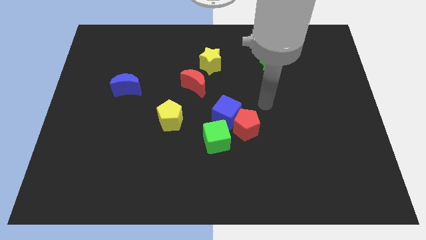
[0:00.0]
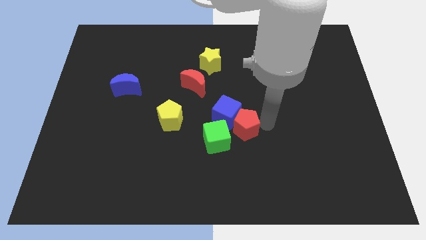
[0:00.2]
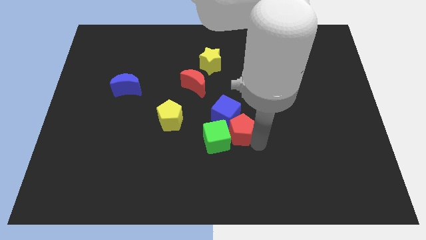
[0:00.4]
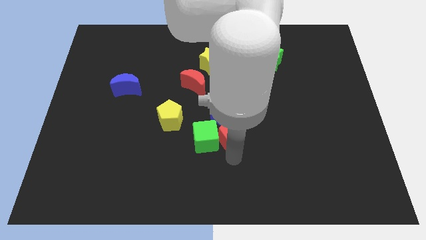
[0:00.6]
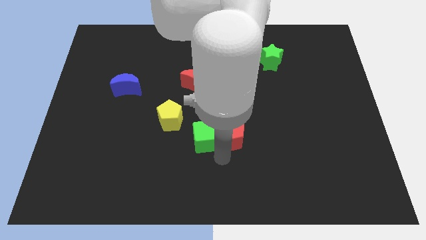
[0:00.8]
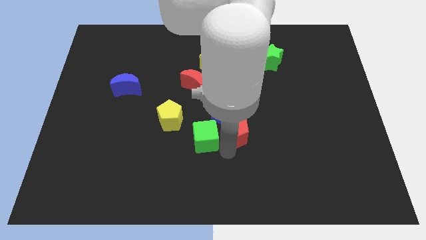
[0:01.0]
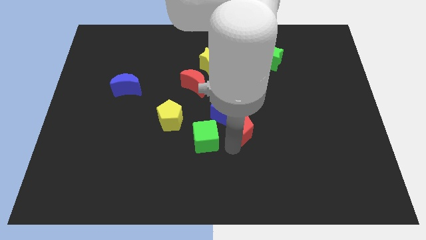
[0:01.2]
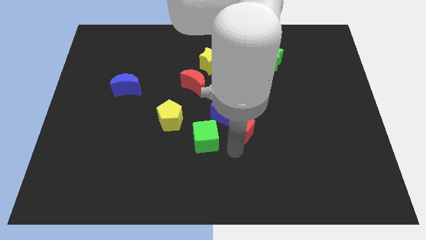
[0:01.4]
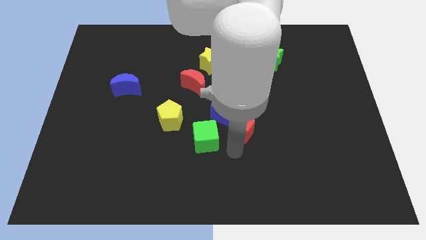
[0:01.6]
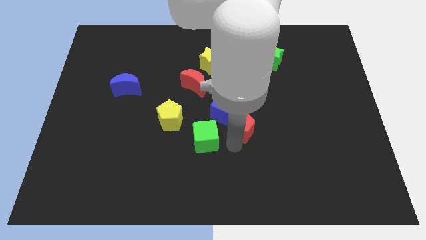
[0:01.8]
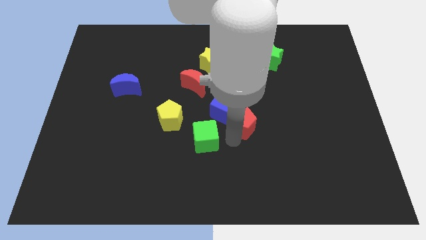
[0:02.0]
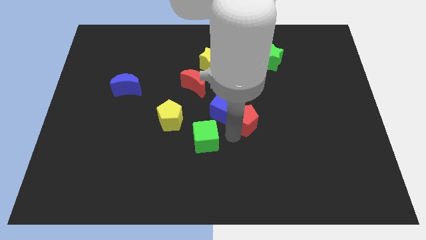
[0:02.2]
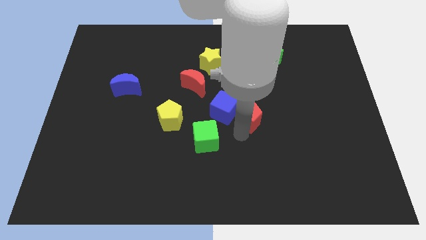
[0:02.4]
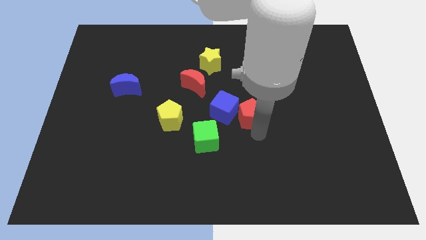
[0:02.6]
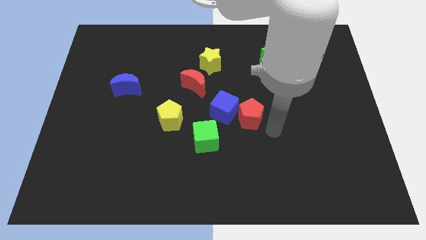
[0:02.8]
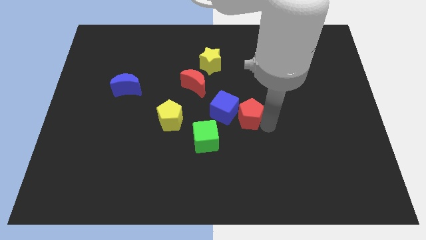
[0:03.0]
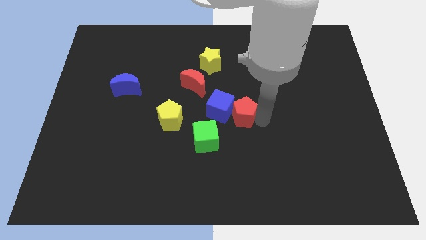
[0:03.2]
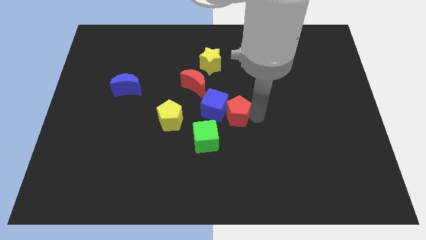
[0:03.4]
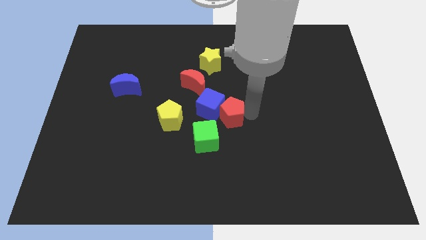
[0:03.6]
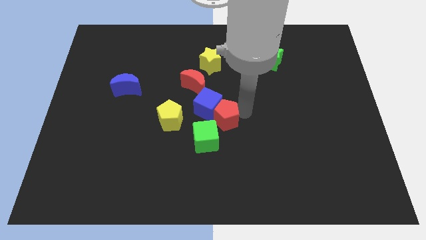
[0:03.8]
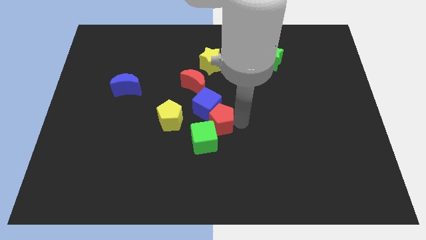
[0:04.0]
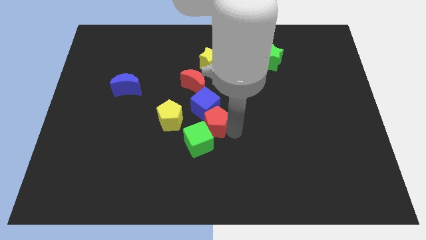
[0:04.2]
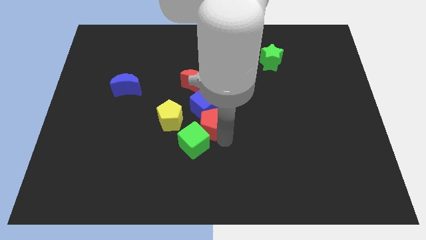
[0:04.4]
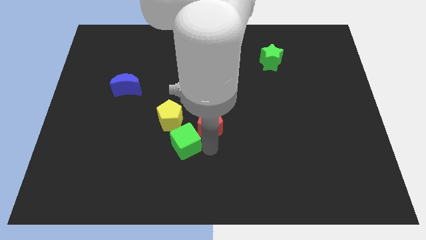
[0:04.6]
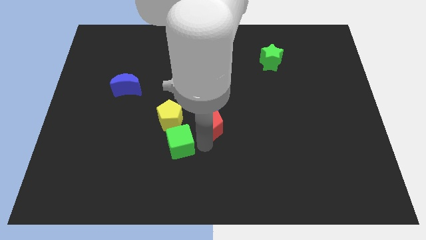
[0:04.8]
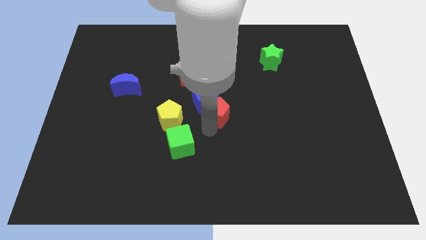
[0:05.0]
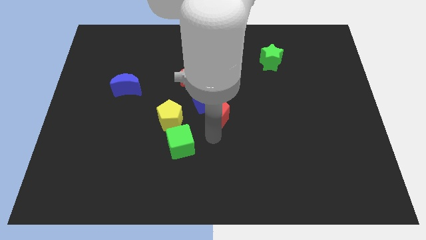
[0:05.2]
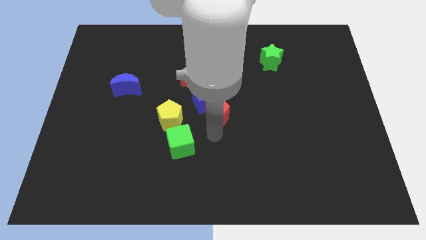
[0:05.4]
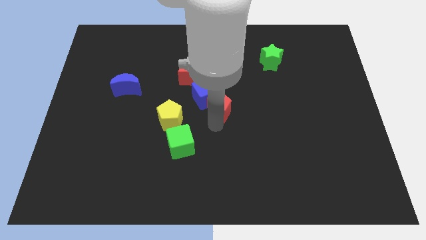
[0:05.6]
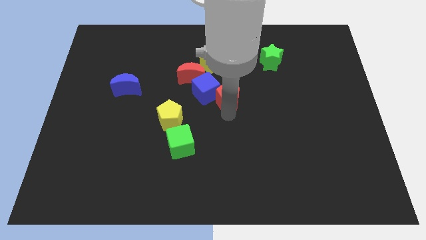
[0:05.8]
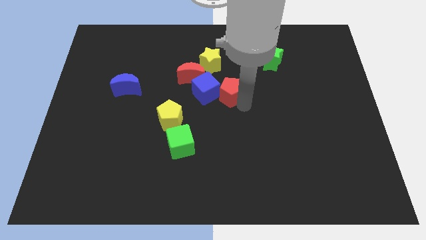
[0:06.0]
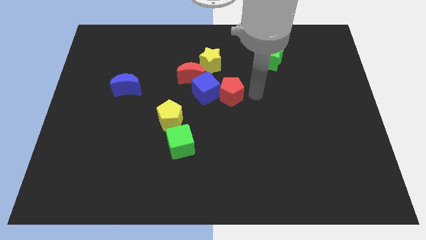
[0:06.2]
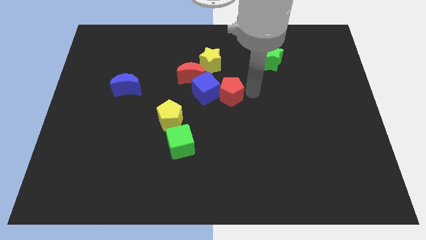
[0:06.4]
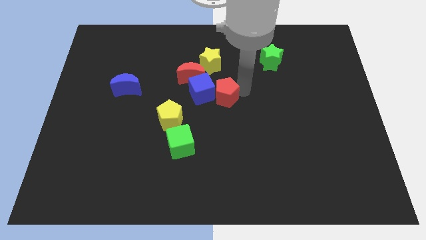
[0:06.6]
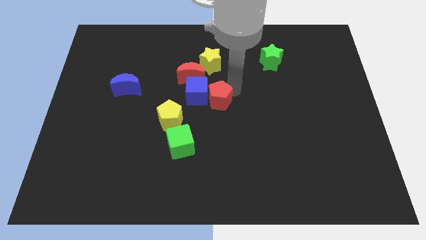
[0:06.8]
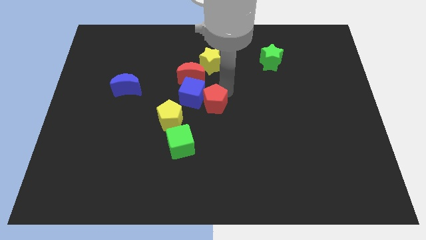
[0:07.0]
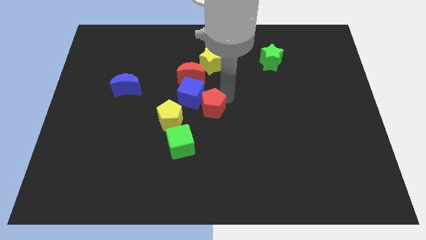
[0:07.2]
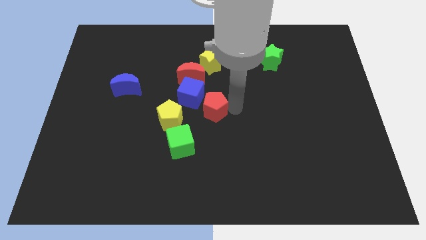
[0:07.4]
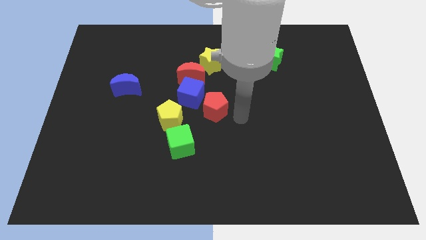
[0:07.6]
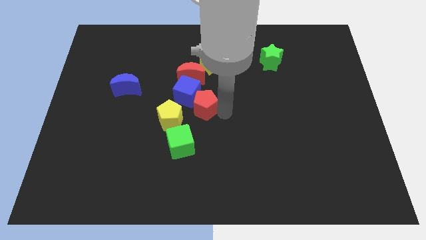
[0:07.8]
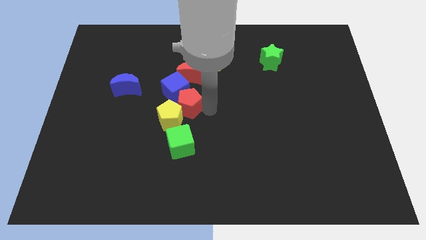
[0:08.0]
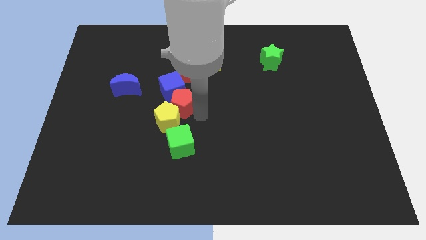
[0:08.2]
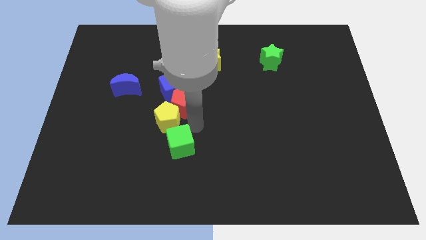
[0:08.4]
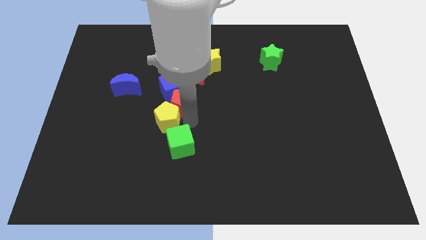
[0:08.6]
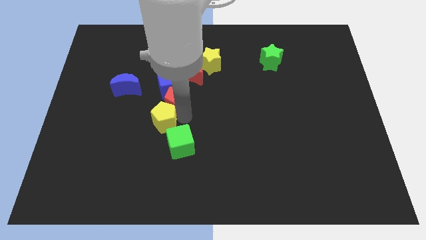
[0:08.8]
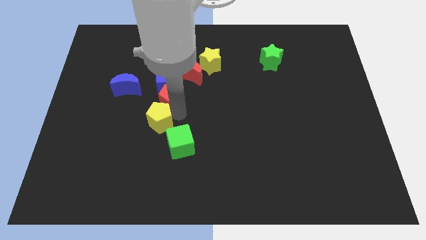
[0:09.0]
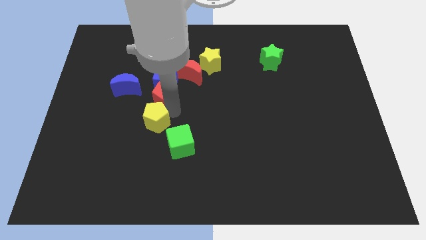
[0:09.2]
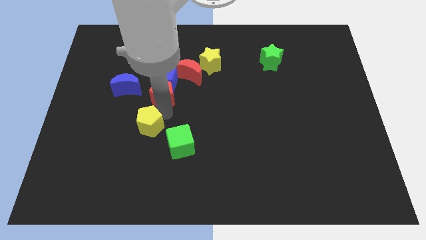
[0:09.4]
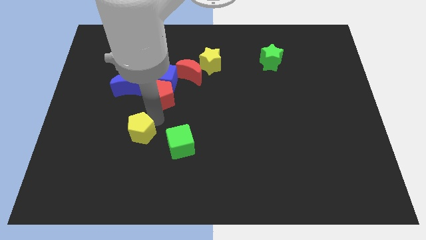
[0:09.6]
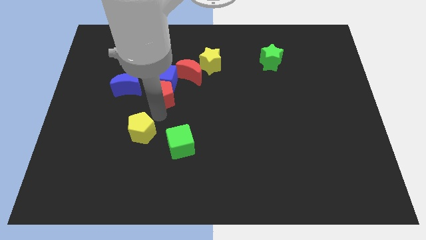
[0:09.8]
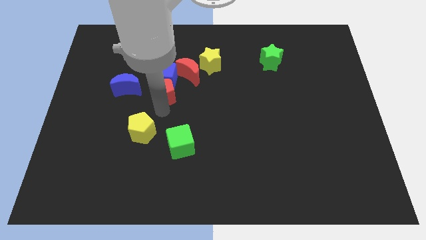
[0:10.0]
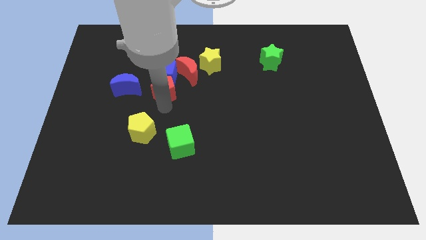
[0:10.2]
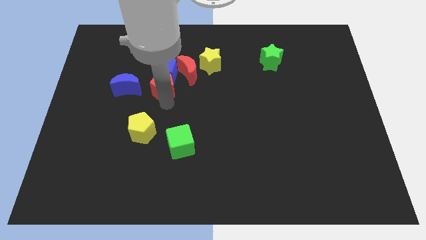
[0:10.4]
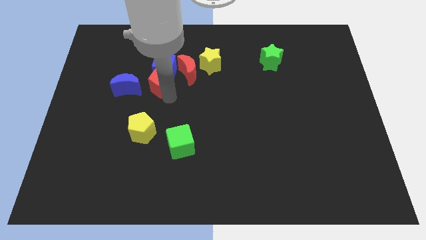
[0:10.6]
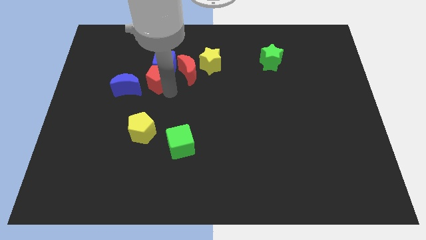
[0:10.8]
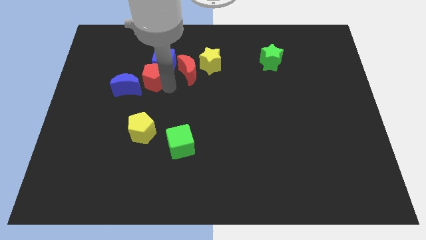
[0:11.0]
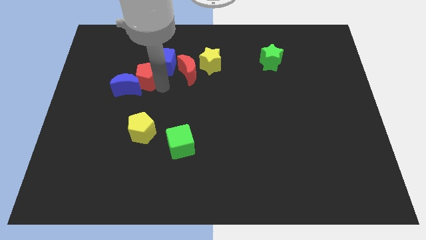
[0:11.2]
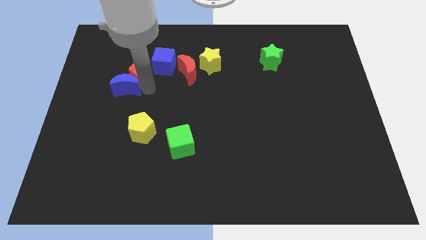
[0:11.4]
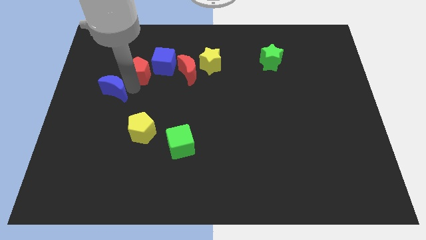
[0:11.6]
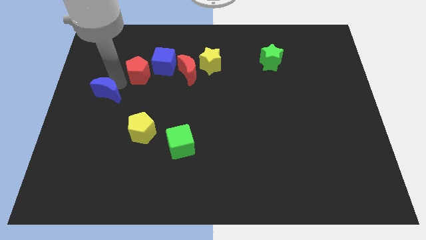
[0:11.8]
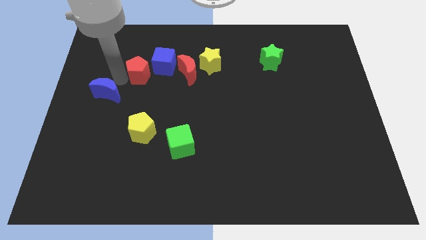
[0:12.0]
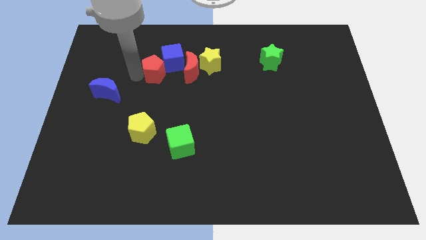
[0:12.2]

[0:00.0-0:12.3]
put the red pentagon left of the yellow star

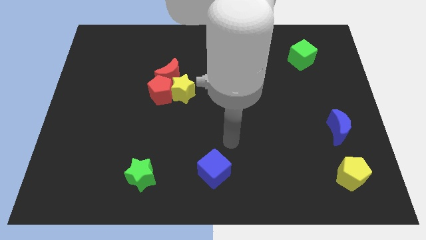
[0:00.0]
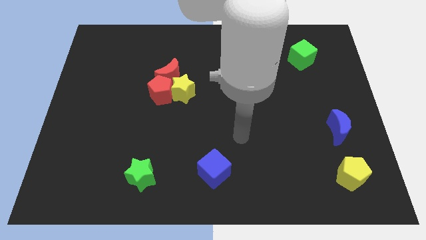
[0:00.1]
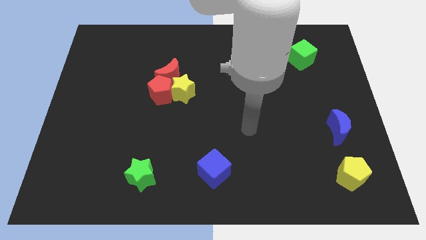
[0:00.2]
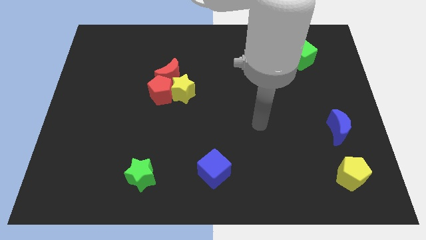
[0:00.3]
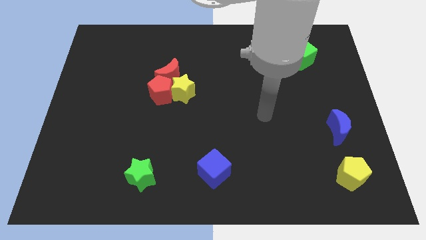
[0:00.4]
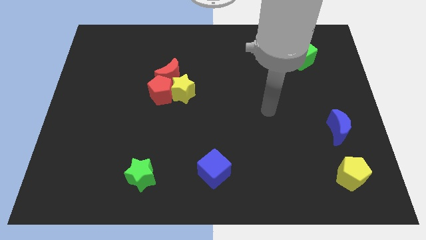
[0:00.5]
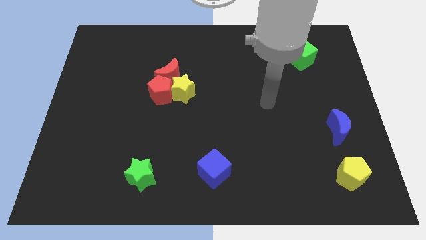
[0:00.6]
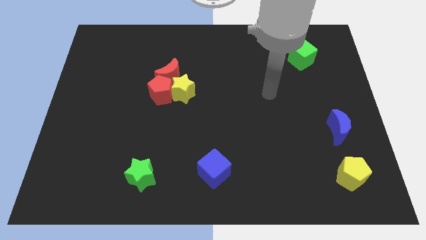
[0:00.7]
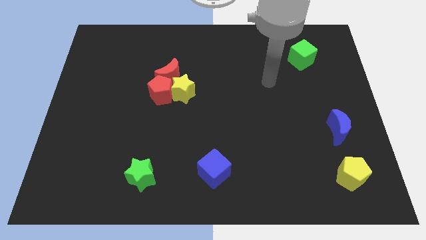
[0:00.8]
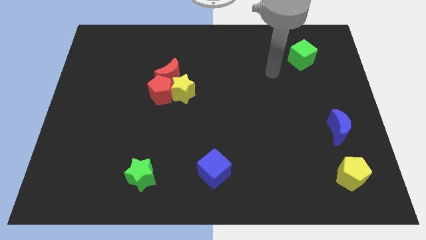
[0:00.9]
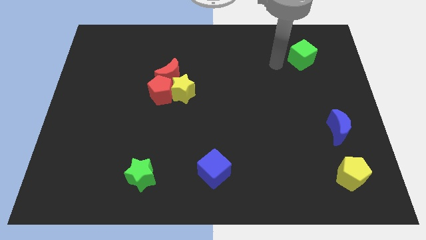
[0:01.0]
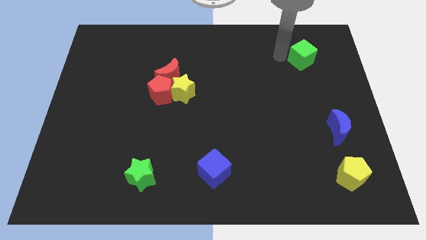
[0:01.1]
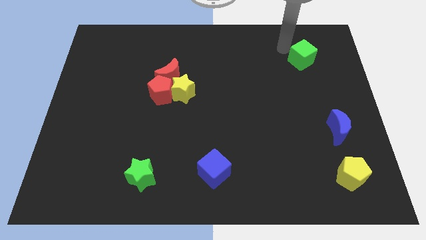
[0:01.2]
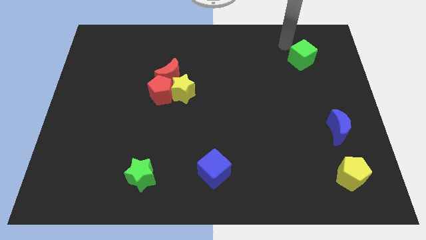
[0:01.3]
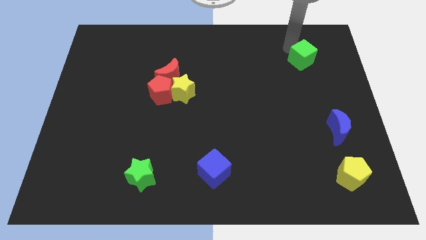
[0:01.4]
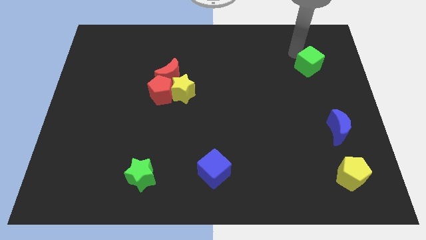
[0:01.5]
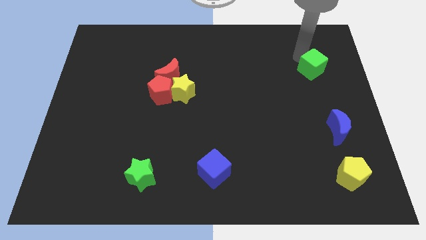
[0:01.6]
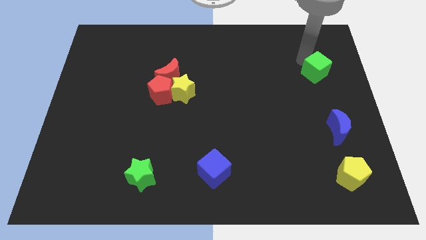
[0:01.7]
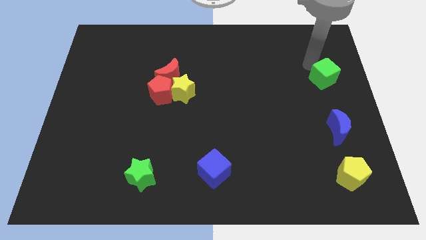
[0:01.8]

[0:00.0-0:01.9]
move the green cube to the top of the blue moon
